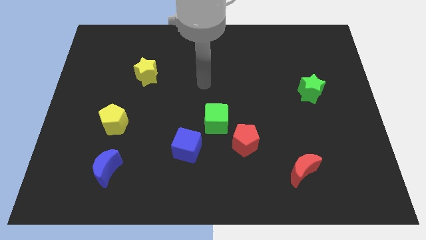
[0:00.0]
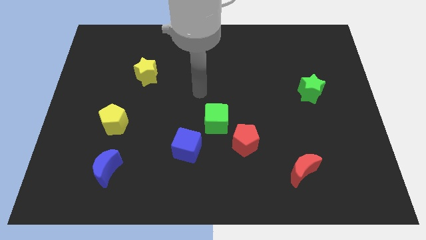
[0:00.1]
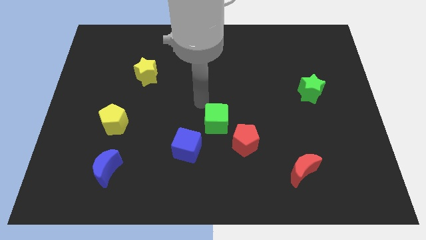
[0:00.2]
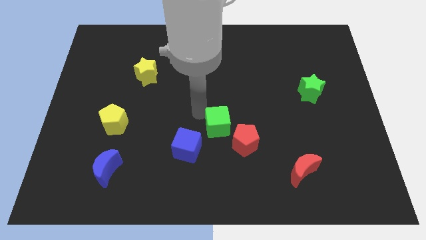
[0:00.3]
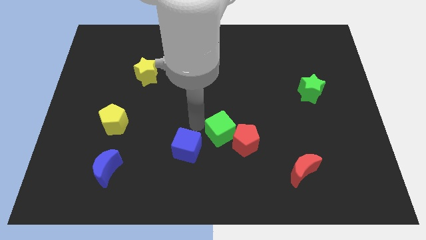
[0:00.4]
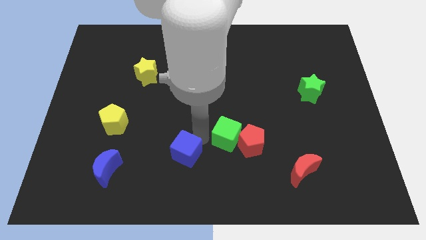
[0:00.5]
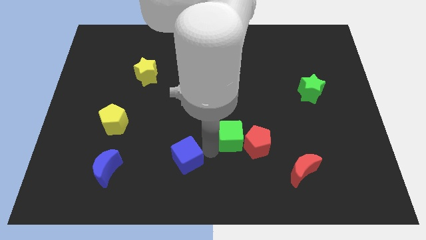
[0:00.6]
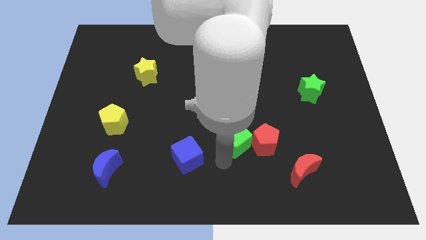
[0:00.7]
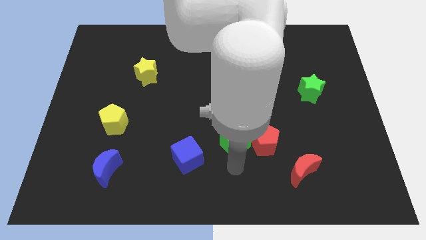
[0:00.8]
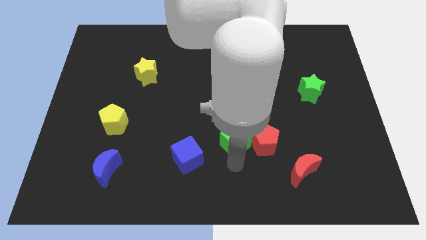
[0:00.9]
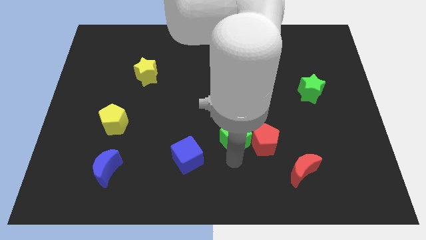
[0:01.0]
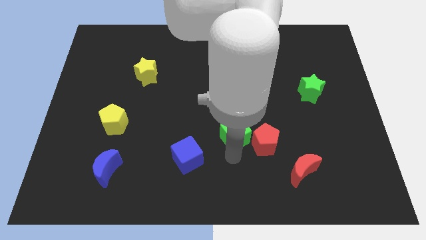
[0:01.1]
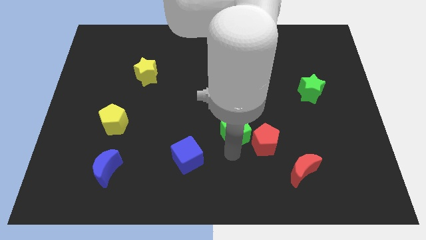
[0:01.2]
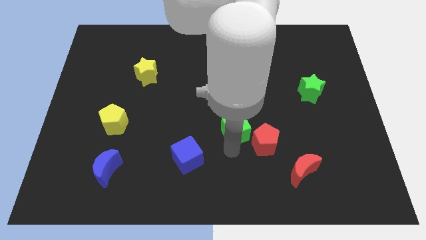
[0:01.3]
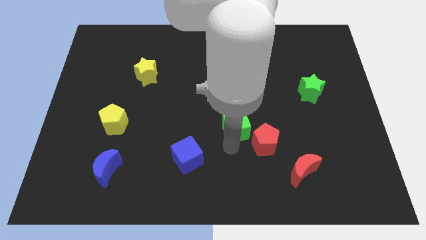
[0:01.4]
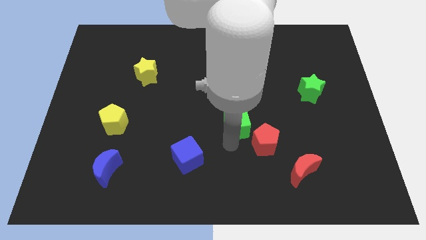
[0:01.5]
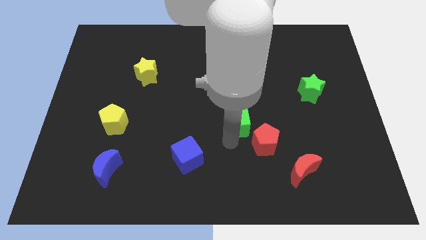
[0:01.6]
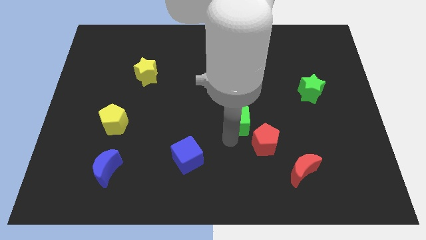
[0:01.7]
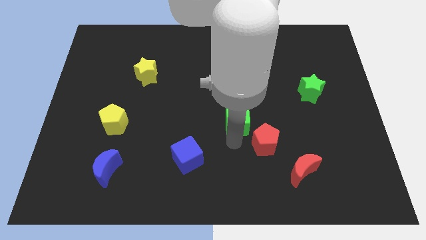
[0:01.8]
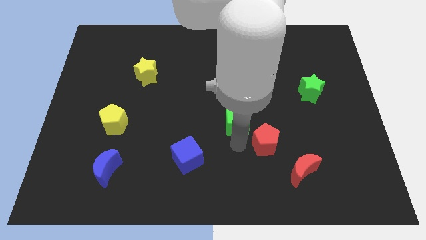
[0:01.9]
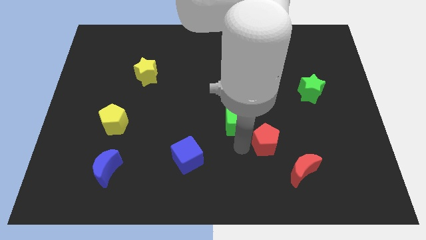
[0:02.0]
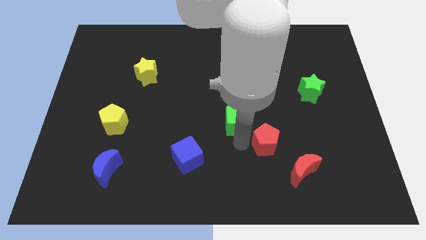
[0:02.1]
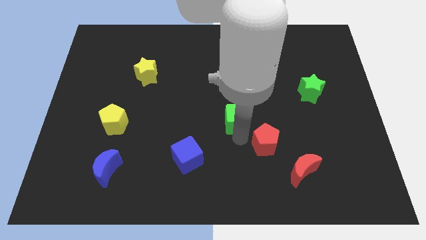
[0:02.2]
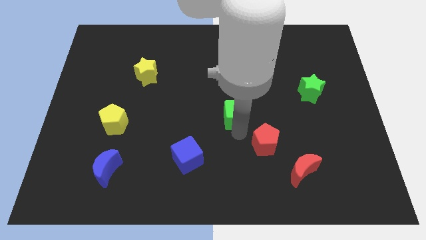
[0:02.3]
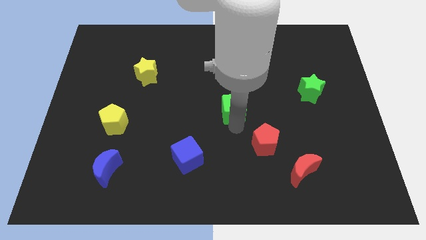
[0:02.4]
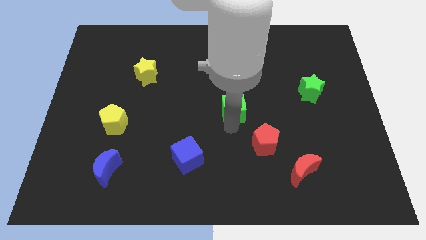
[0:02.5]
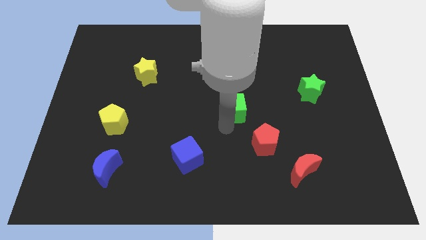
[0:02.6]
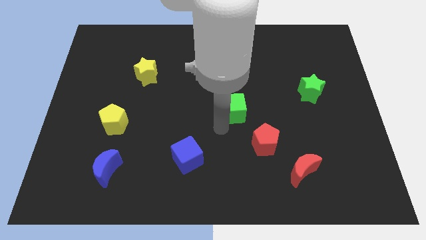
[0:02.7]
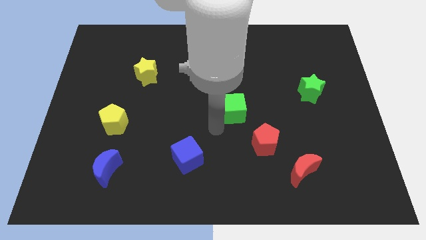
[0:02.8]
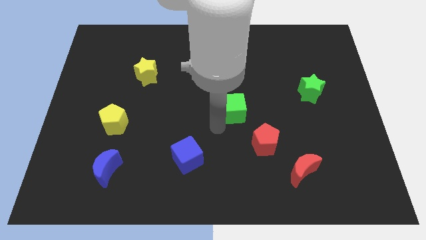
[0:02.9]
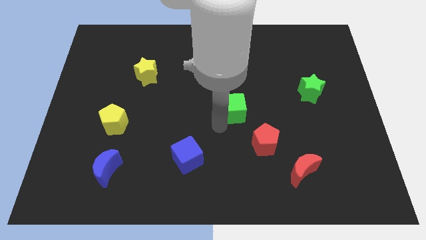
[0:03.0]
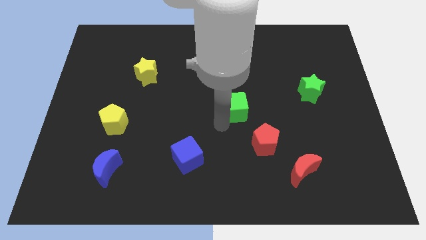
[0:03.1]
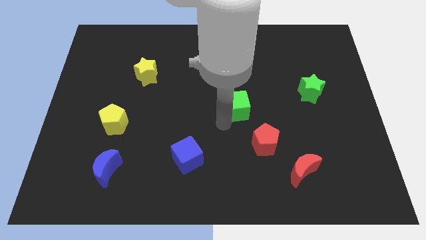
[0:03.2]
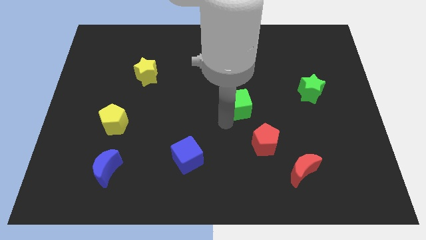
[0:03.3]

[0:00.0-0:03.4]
move the green cube upwards and then to the right somewhat

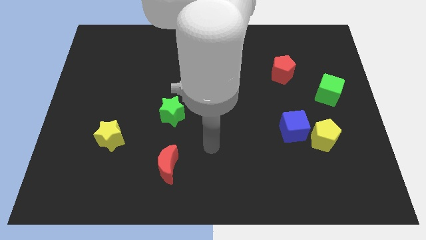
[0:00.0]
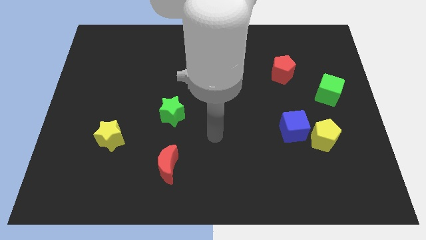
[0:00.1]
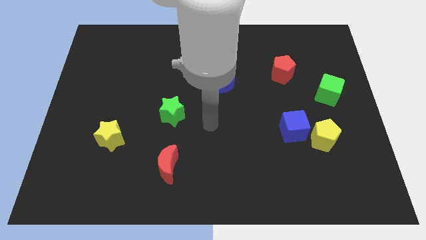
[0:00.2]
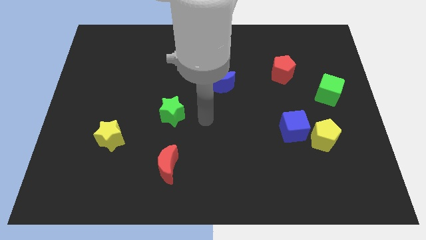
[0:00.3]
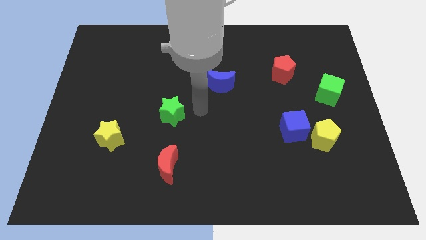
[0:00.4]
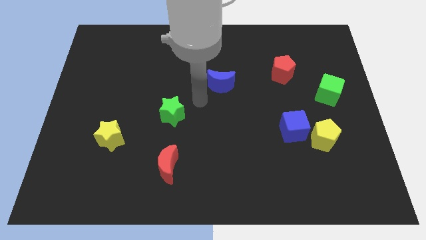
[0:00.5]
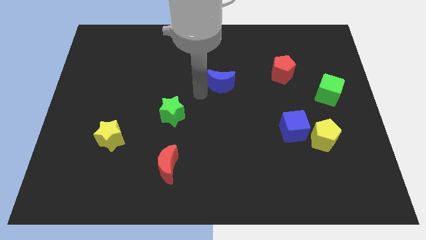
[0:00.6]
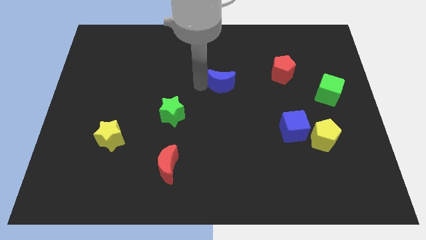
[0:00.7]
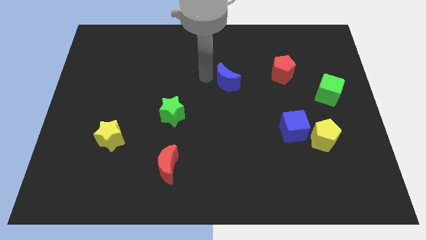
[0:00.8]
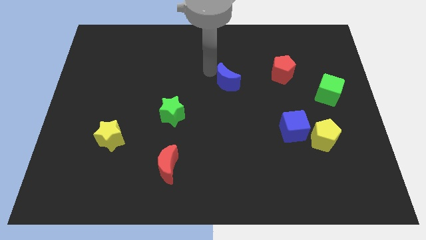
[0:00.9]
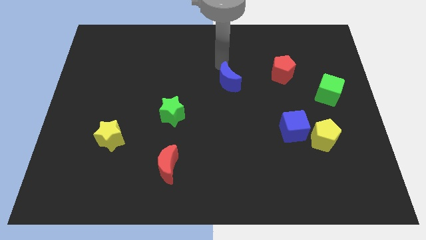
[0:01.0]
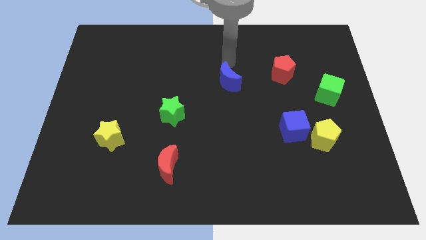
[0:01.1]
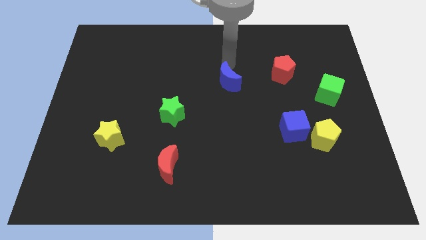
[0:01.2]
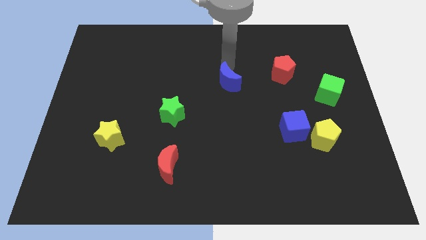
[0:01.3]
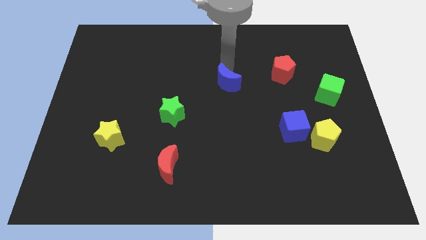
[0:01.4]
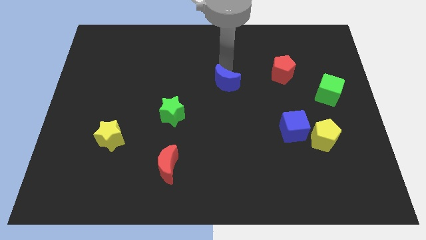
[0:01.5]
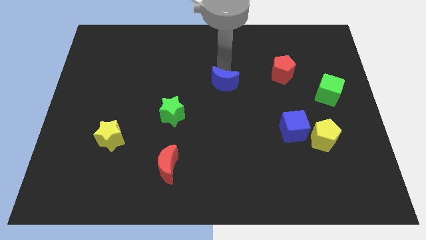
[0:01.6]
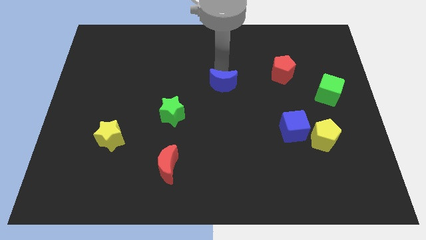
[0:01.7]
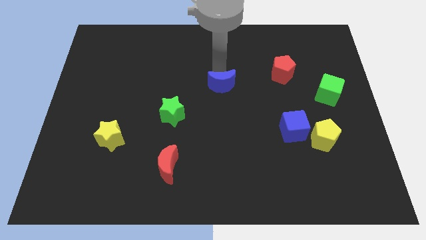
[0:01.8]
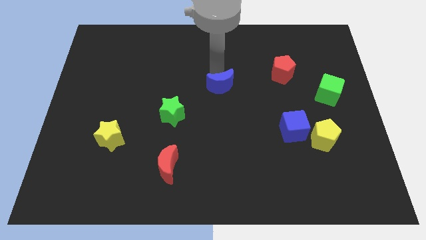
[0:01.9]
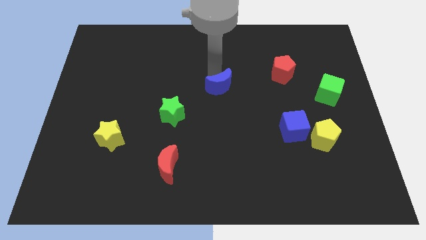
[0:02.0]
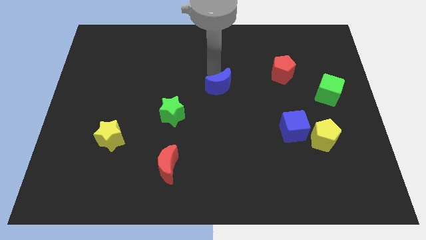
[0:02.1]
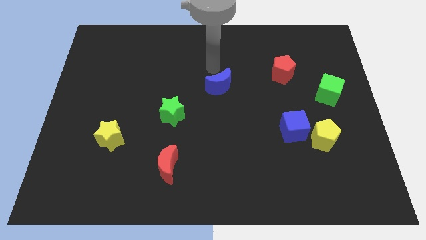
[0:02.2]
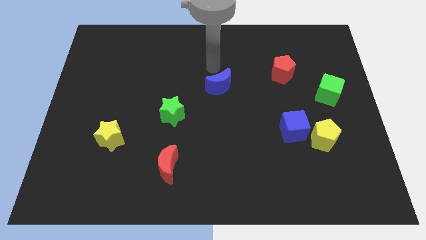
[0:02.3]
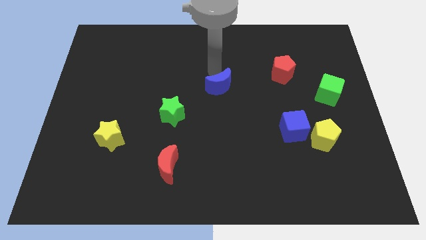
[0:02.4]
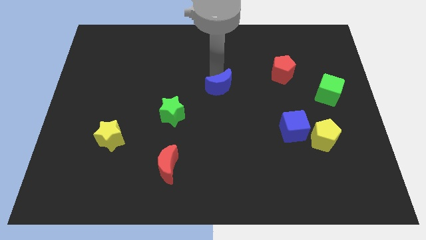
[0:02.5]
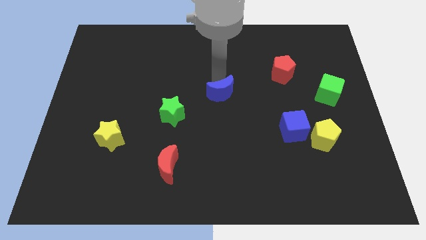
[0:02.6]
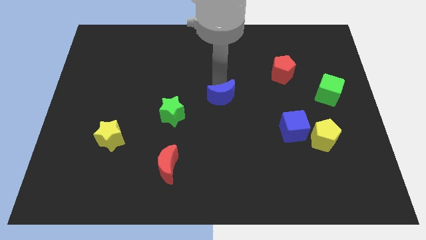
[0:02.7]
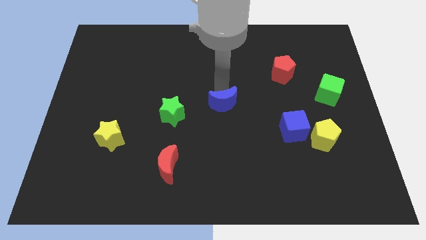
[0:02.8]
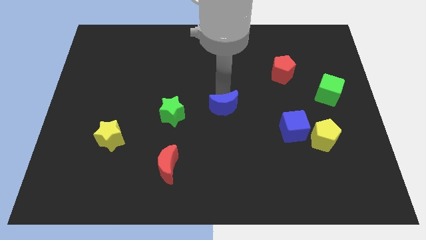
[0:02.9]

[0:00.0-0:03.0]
slightly slide the blue moon down

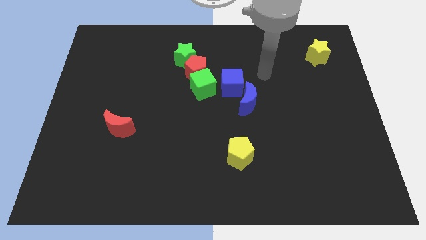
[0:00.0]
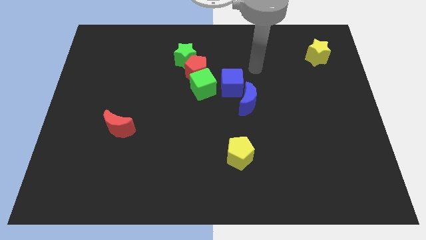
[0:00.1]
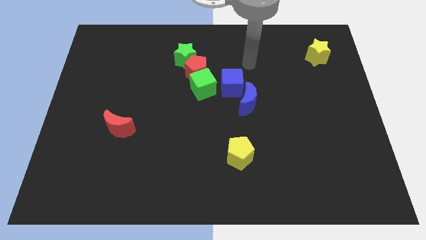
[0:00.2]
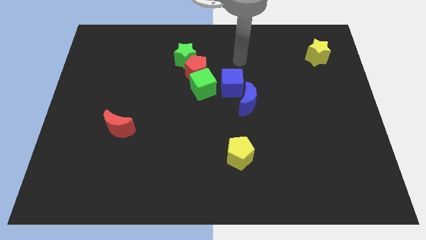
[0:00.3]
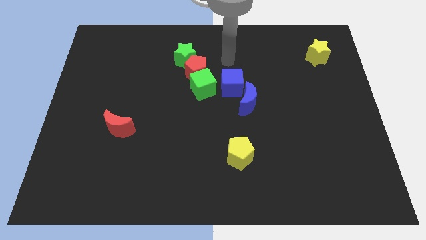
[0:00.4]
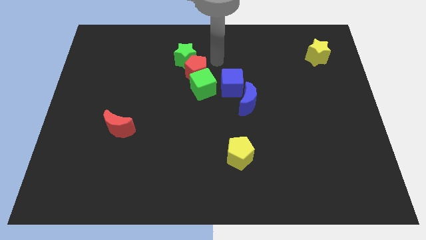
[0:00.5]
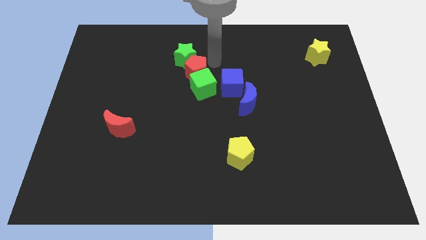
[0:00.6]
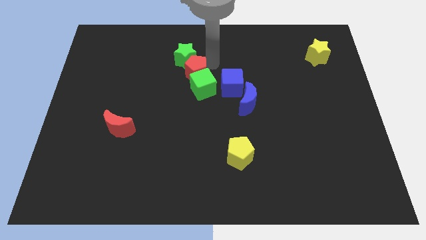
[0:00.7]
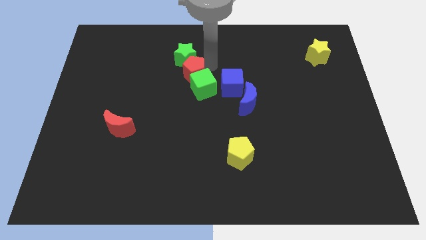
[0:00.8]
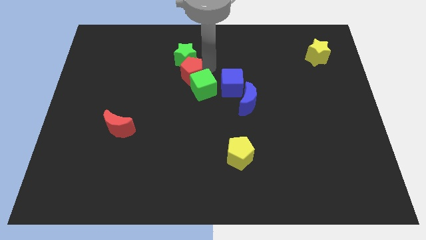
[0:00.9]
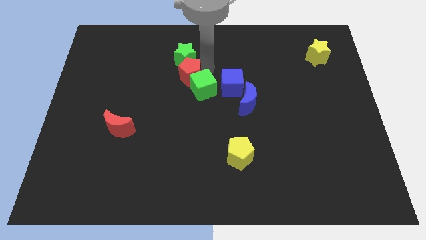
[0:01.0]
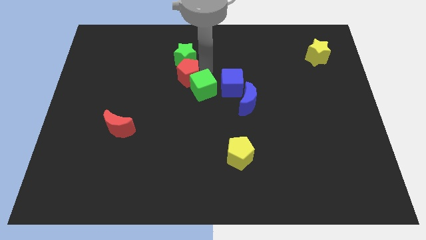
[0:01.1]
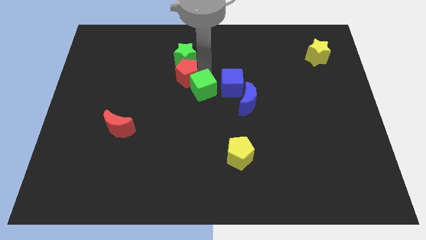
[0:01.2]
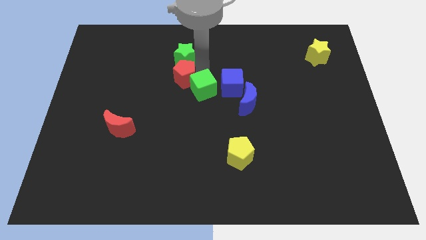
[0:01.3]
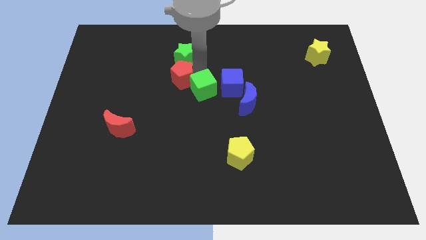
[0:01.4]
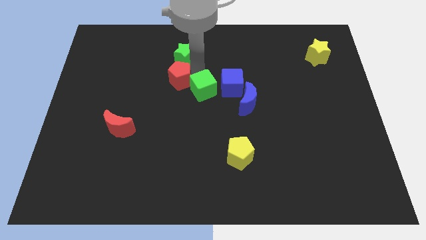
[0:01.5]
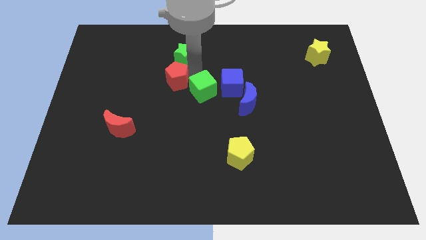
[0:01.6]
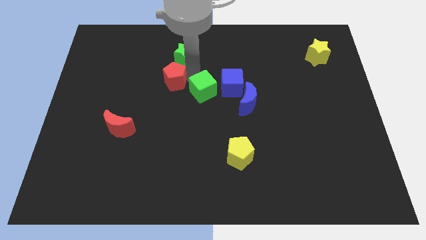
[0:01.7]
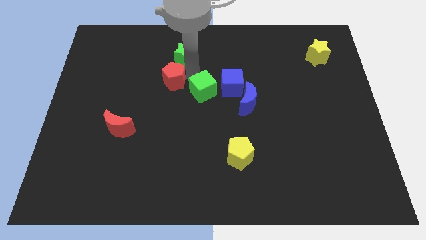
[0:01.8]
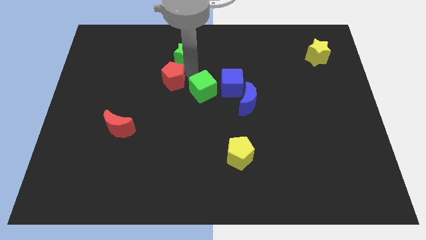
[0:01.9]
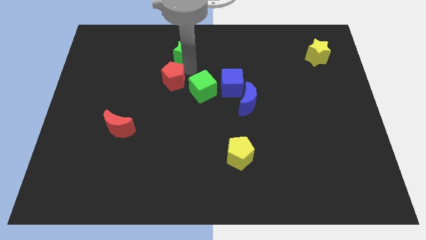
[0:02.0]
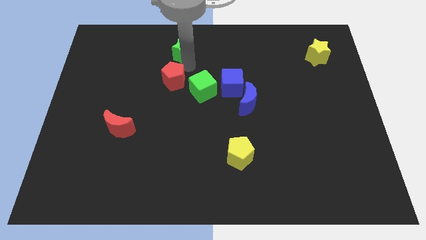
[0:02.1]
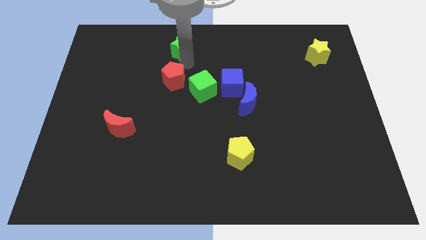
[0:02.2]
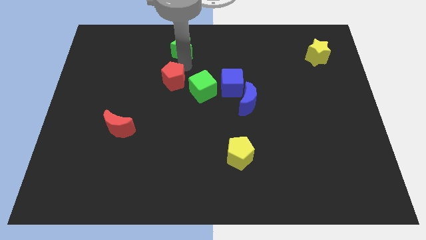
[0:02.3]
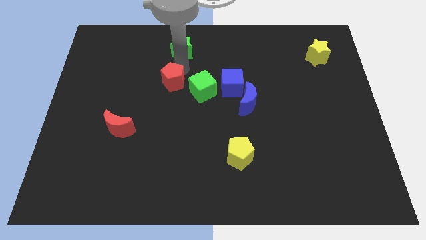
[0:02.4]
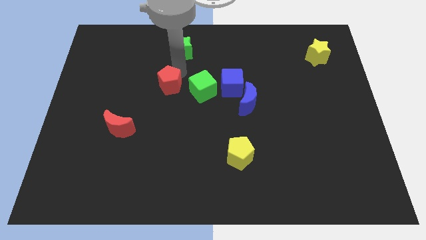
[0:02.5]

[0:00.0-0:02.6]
slide the red pentagon down and then to the left a little bit
